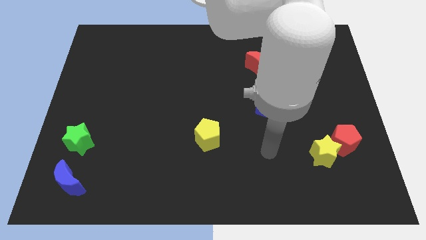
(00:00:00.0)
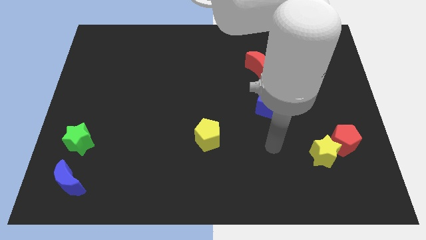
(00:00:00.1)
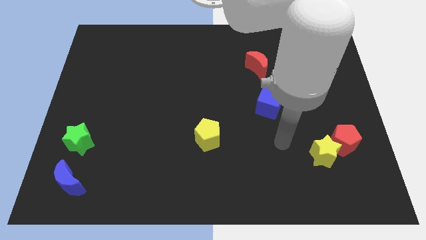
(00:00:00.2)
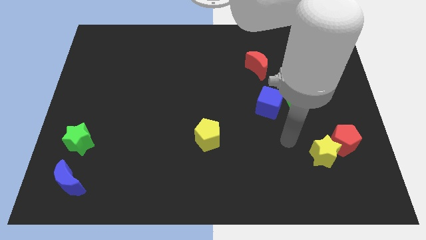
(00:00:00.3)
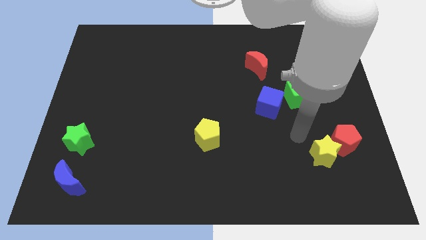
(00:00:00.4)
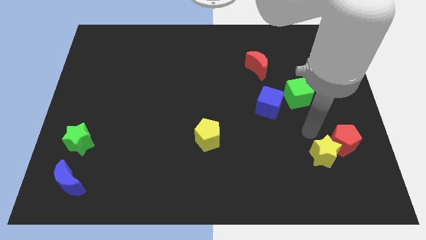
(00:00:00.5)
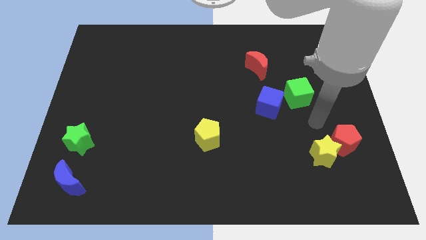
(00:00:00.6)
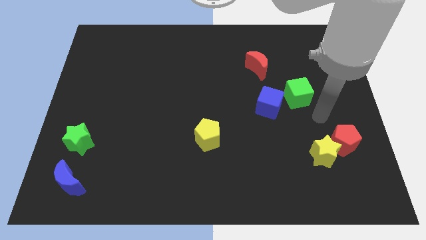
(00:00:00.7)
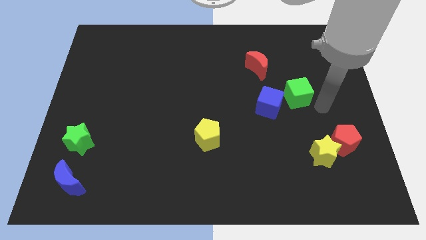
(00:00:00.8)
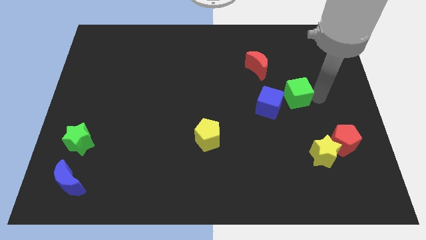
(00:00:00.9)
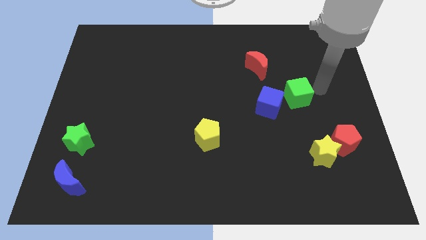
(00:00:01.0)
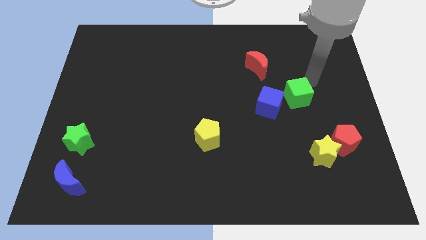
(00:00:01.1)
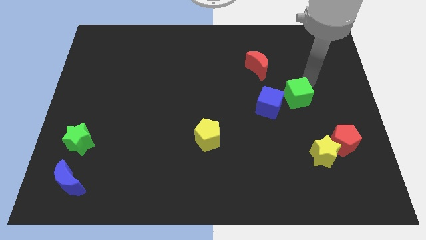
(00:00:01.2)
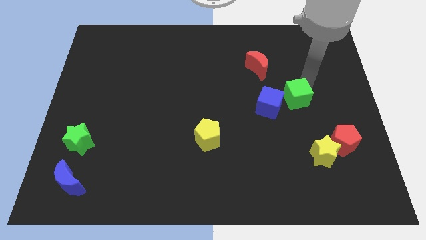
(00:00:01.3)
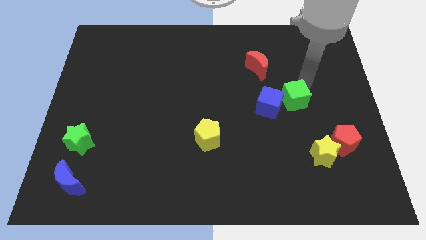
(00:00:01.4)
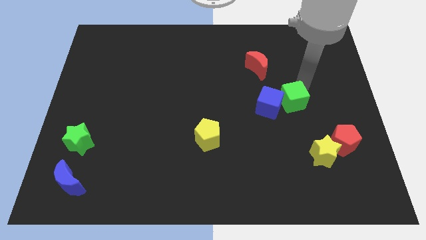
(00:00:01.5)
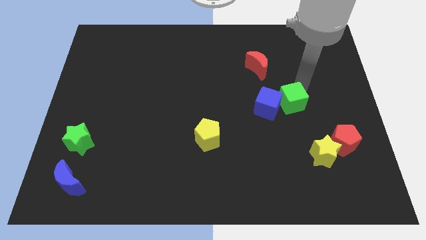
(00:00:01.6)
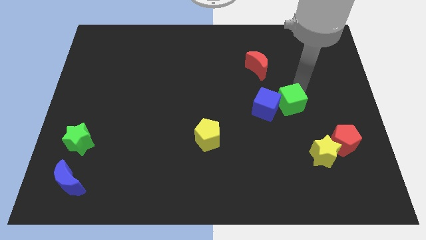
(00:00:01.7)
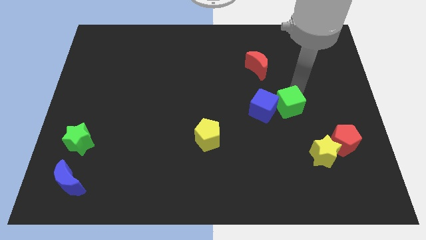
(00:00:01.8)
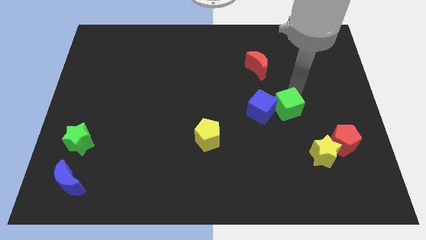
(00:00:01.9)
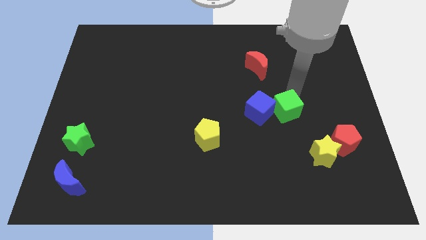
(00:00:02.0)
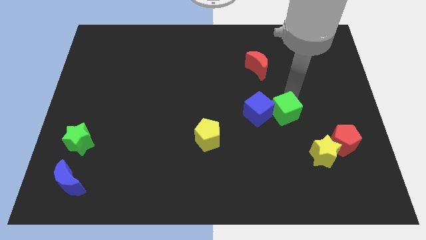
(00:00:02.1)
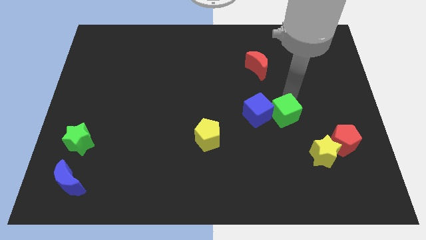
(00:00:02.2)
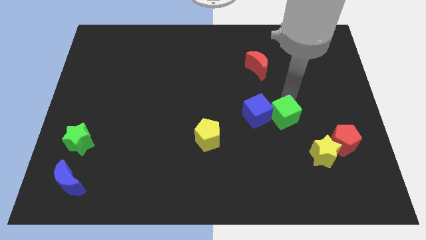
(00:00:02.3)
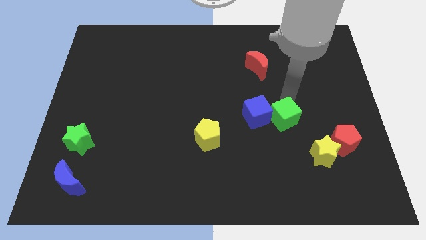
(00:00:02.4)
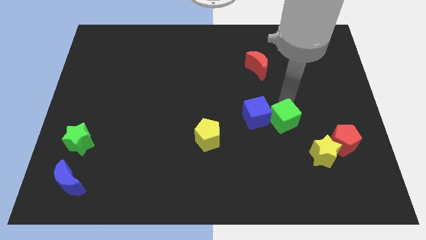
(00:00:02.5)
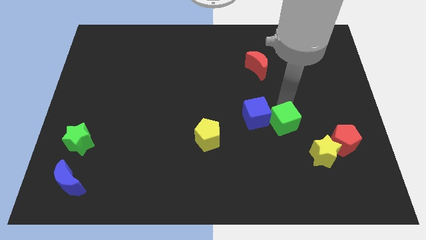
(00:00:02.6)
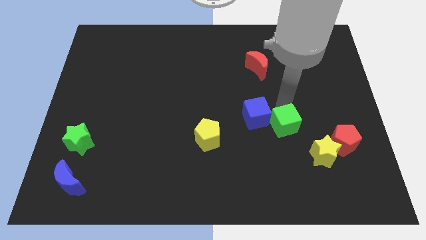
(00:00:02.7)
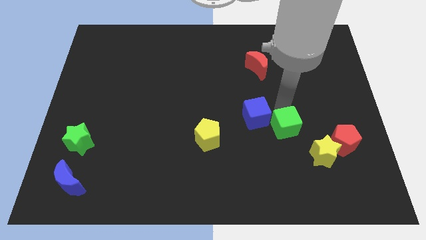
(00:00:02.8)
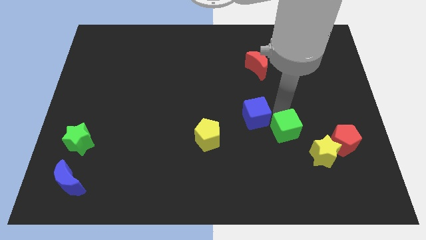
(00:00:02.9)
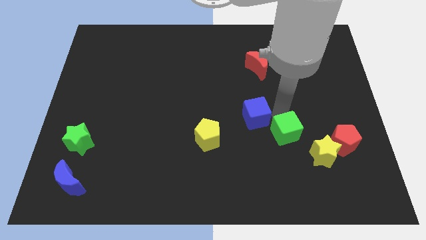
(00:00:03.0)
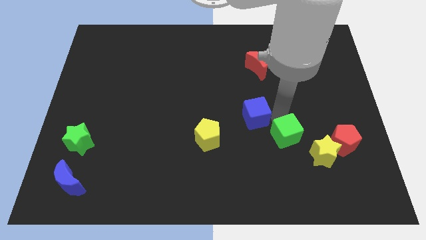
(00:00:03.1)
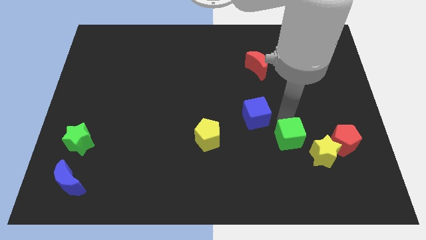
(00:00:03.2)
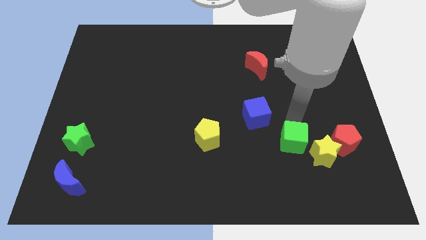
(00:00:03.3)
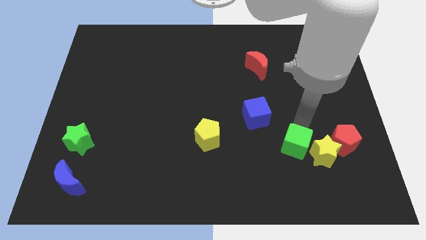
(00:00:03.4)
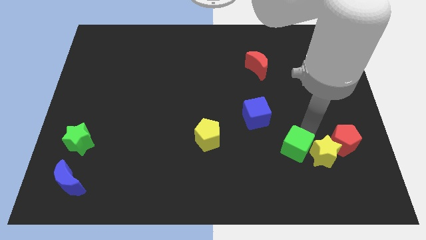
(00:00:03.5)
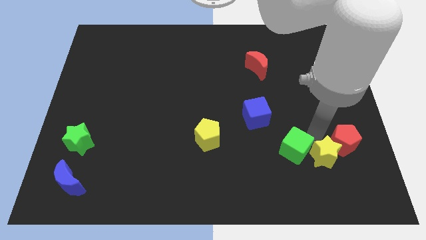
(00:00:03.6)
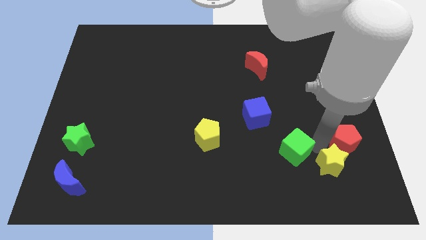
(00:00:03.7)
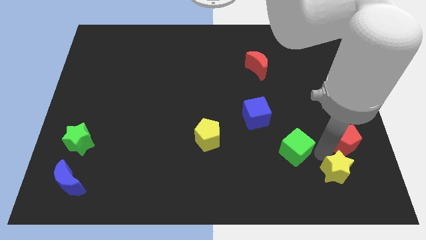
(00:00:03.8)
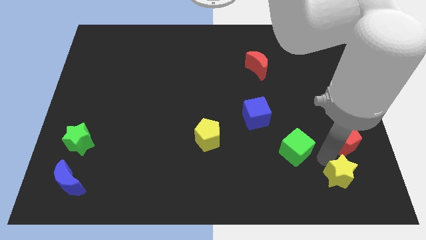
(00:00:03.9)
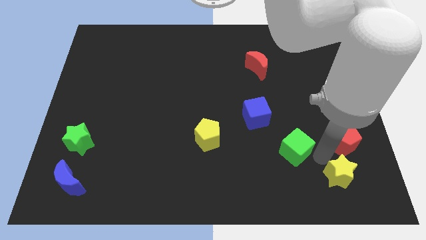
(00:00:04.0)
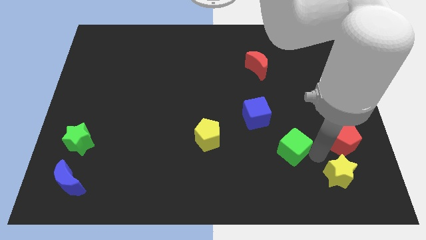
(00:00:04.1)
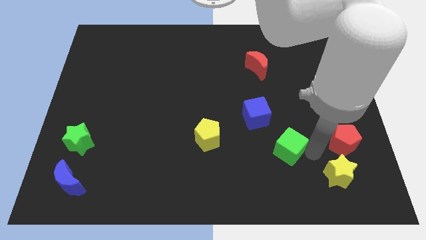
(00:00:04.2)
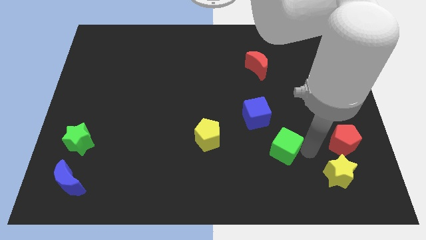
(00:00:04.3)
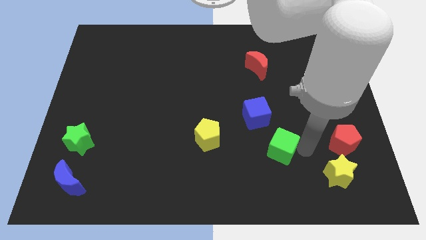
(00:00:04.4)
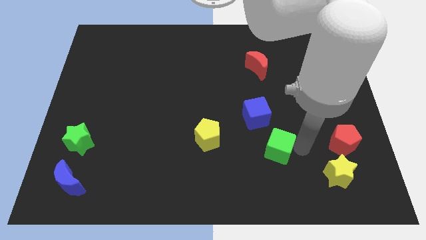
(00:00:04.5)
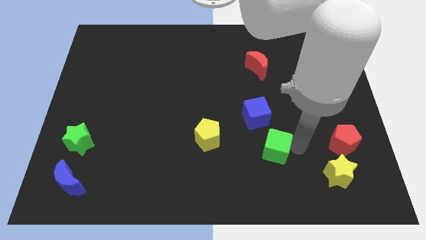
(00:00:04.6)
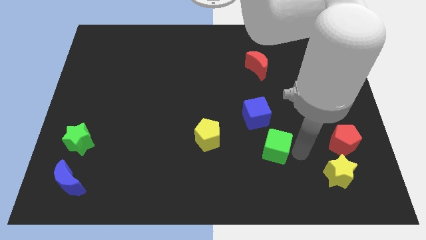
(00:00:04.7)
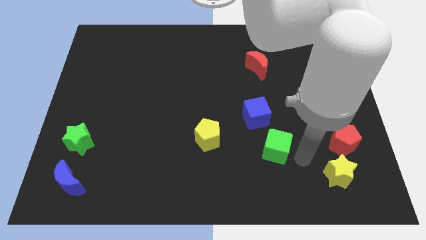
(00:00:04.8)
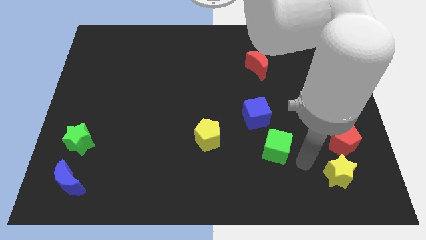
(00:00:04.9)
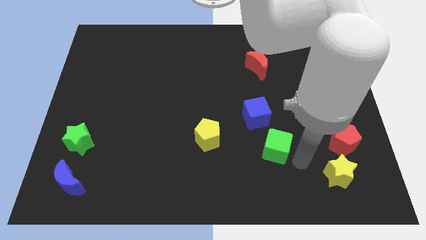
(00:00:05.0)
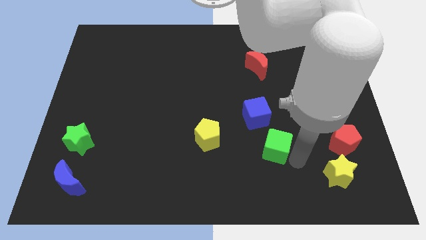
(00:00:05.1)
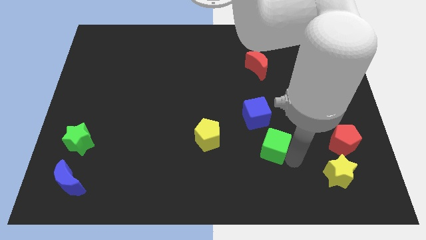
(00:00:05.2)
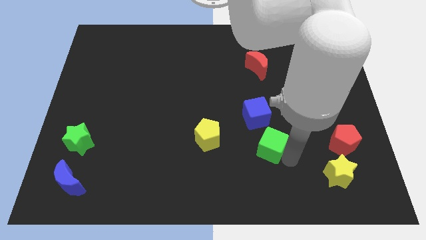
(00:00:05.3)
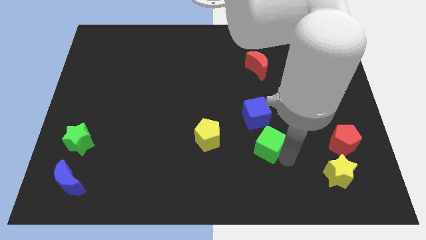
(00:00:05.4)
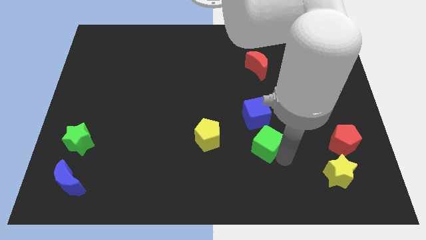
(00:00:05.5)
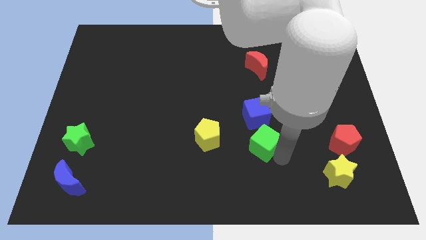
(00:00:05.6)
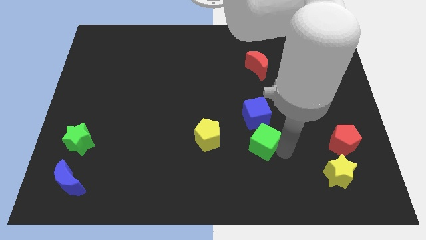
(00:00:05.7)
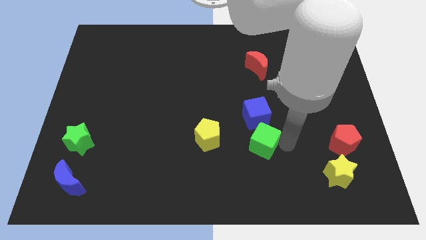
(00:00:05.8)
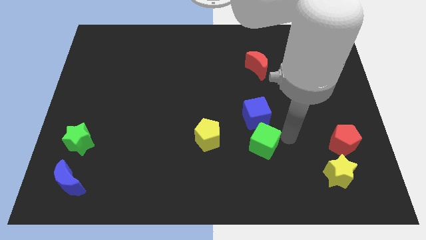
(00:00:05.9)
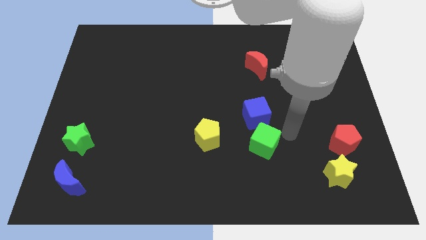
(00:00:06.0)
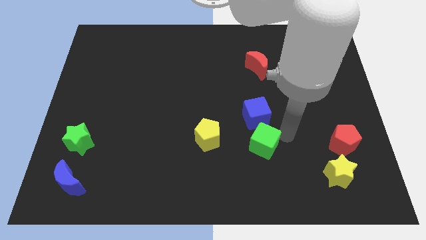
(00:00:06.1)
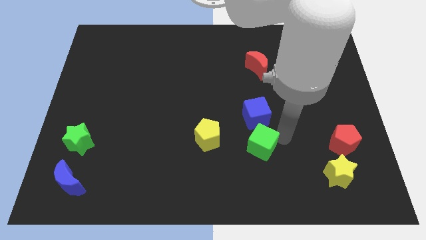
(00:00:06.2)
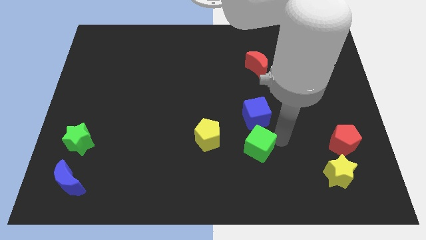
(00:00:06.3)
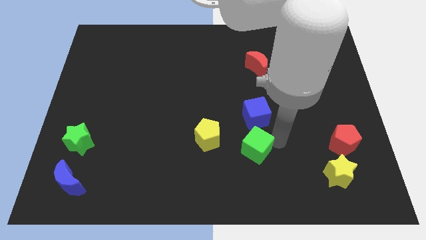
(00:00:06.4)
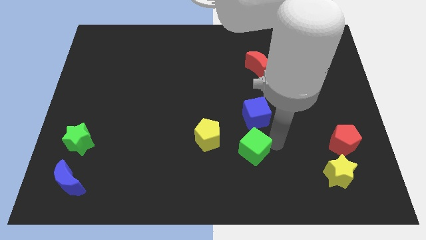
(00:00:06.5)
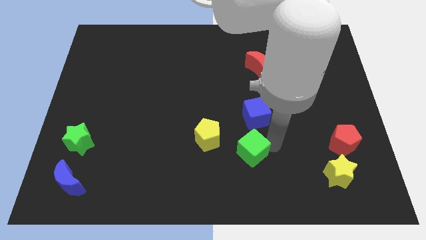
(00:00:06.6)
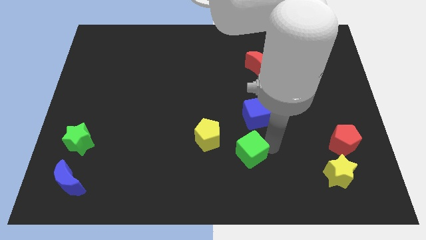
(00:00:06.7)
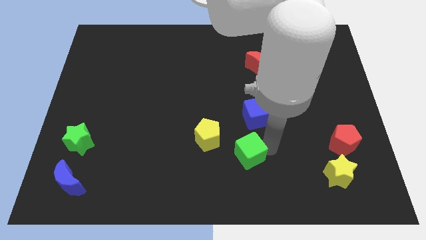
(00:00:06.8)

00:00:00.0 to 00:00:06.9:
push the green cube down and then left

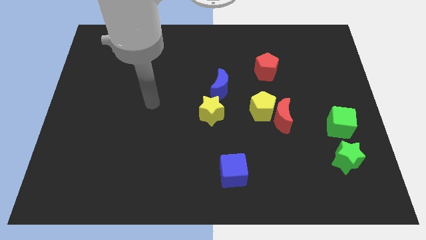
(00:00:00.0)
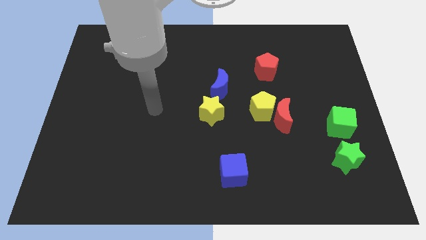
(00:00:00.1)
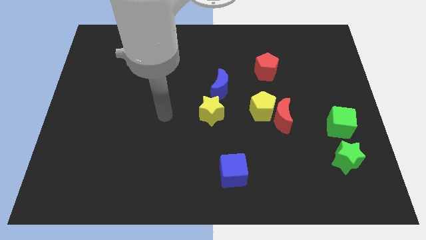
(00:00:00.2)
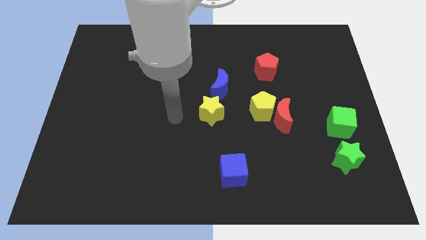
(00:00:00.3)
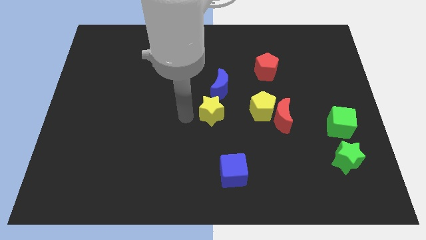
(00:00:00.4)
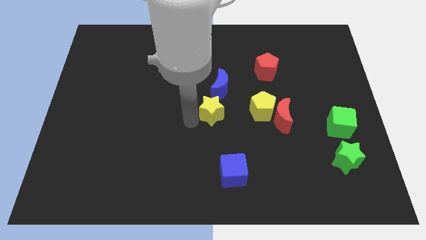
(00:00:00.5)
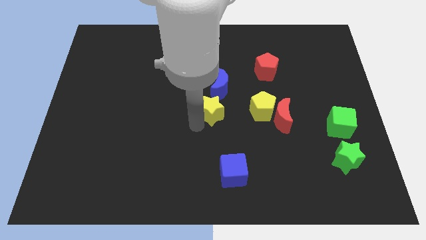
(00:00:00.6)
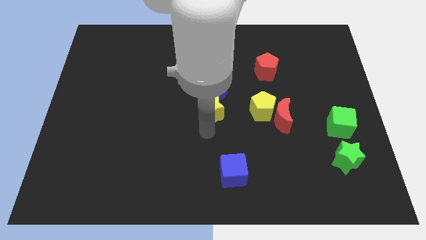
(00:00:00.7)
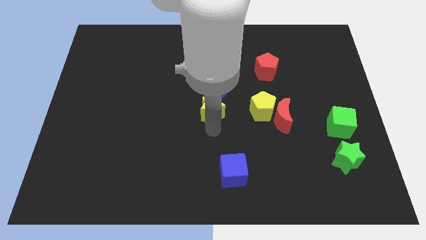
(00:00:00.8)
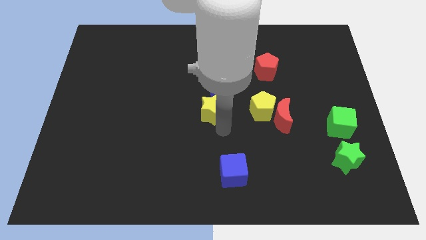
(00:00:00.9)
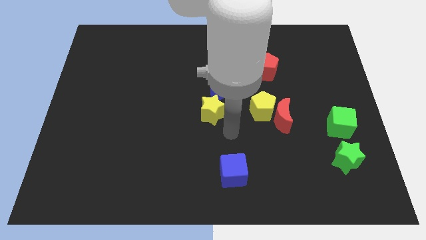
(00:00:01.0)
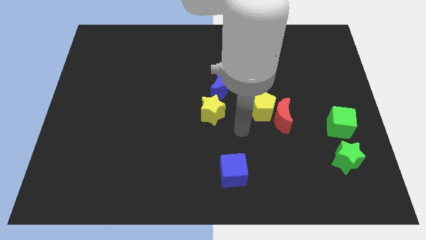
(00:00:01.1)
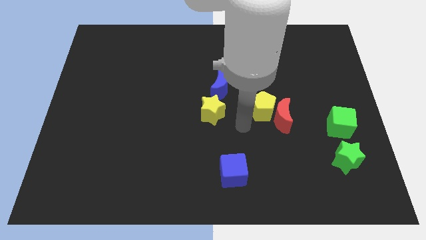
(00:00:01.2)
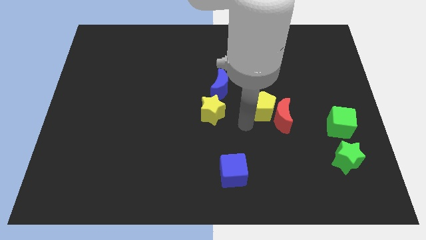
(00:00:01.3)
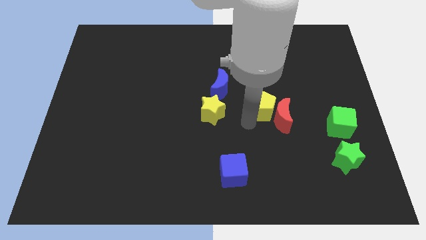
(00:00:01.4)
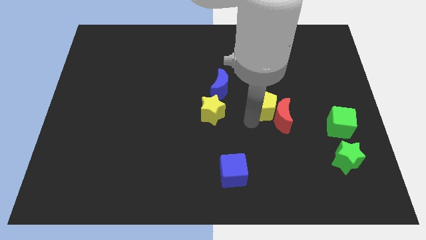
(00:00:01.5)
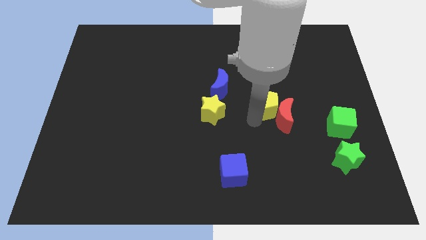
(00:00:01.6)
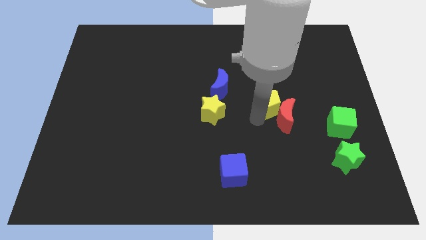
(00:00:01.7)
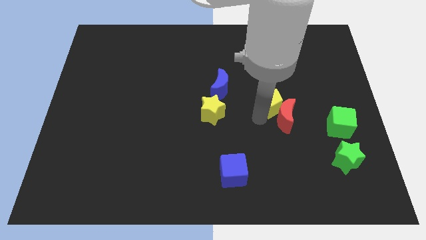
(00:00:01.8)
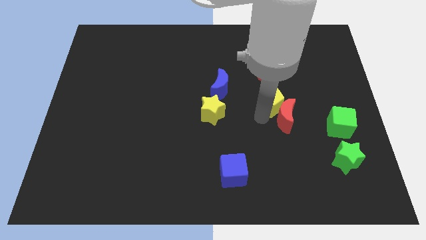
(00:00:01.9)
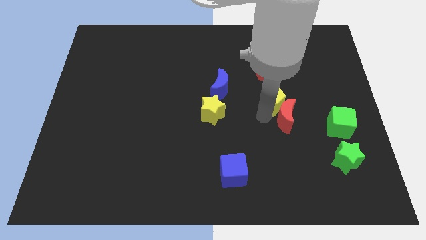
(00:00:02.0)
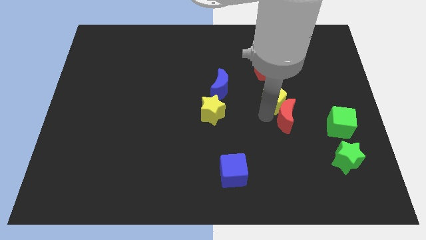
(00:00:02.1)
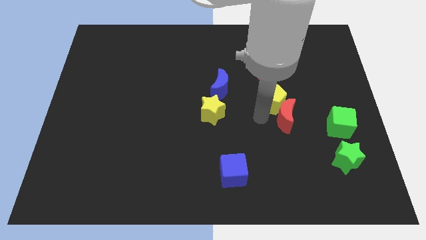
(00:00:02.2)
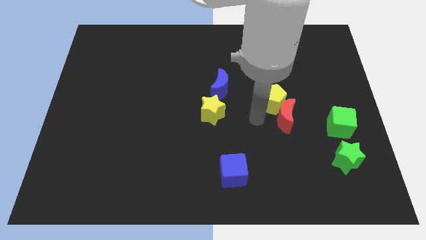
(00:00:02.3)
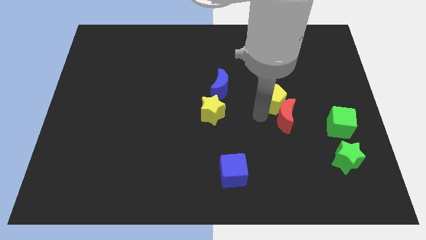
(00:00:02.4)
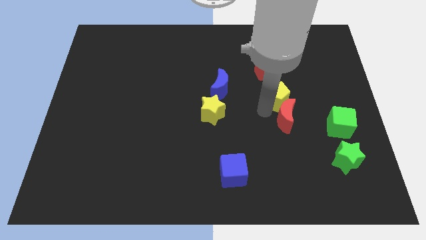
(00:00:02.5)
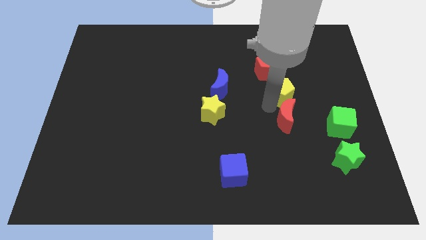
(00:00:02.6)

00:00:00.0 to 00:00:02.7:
push the yellow pentagon somewhat diagonally upwards and to the right
